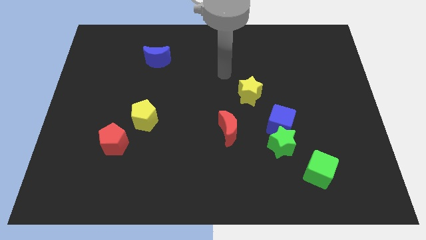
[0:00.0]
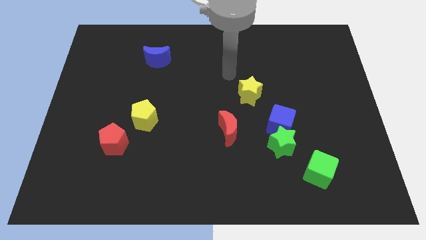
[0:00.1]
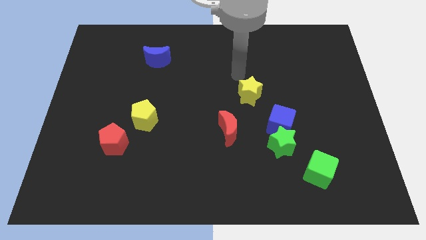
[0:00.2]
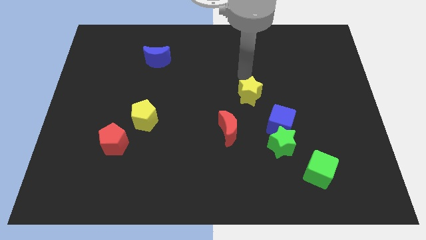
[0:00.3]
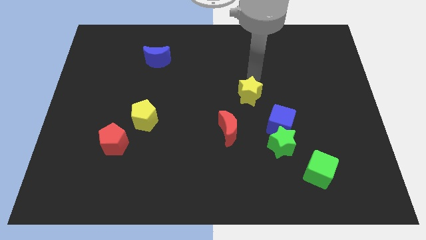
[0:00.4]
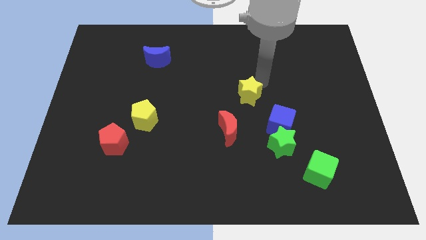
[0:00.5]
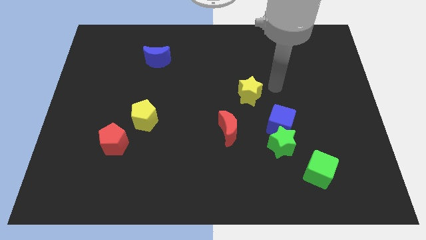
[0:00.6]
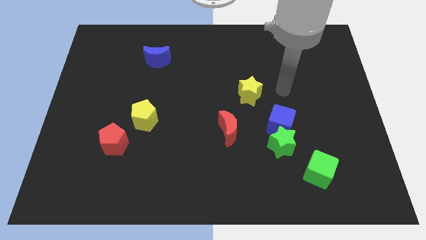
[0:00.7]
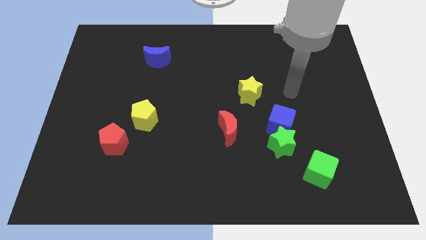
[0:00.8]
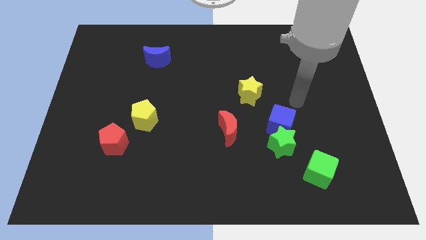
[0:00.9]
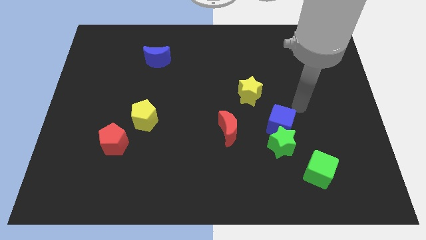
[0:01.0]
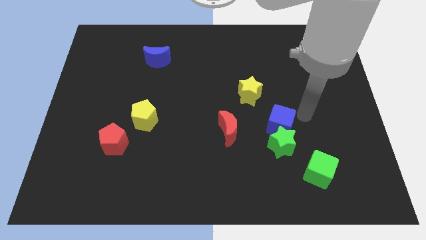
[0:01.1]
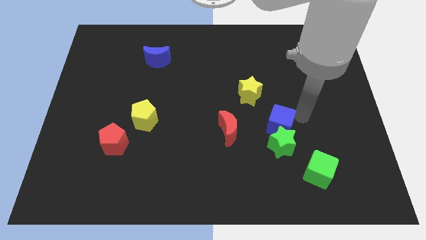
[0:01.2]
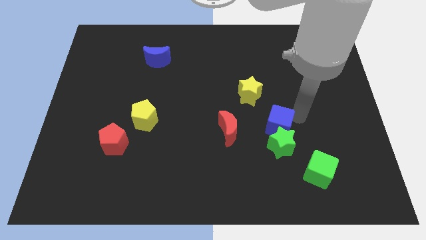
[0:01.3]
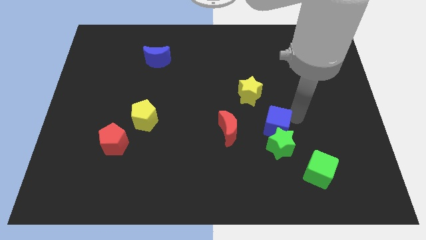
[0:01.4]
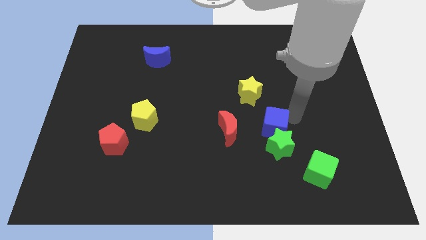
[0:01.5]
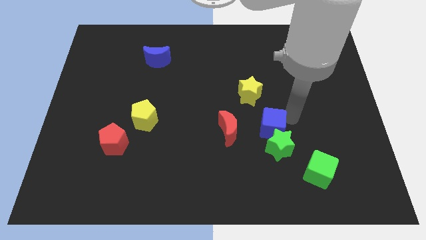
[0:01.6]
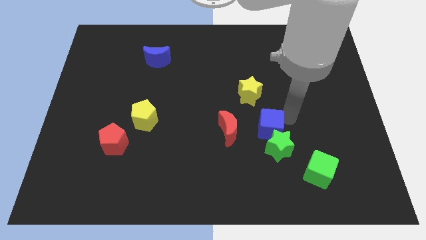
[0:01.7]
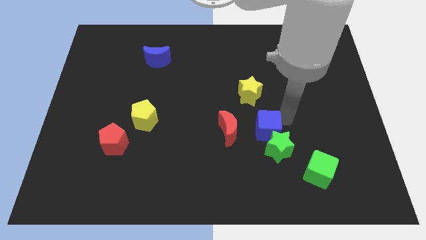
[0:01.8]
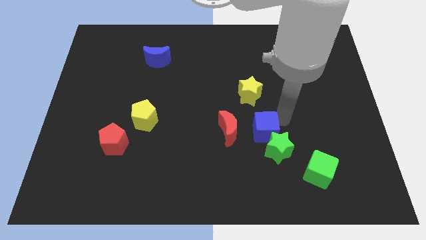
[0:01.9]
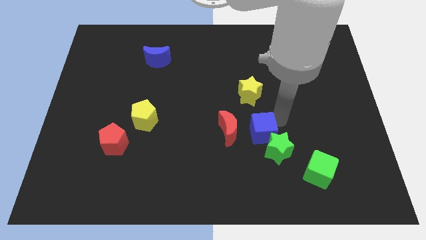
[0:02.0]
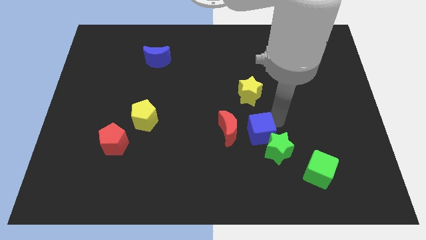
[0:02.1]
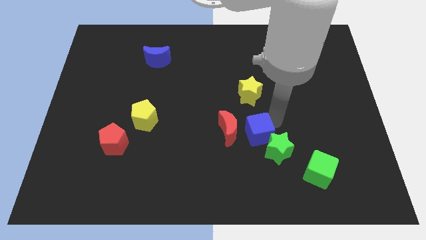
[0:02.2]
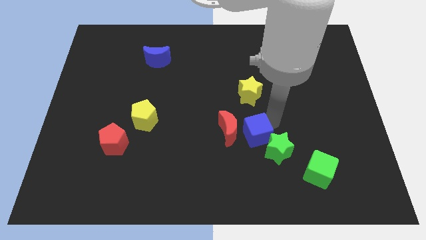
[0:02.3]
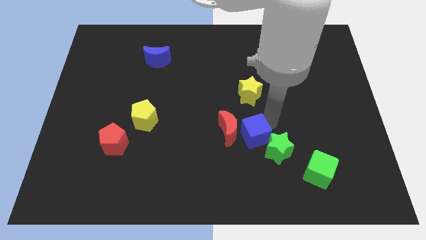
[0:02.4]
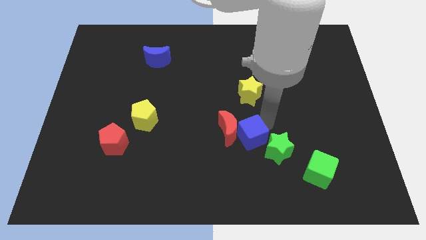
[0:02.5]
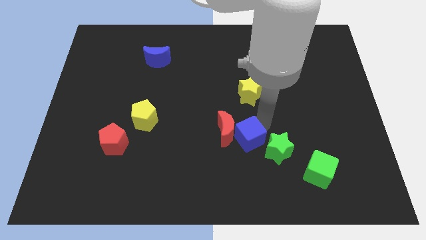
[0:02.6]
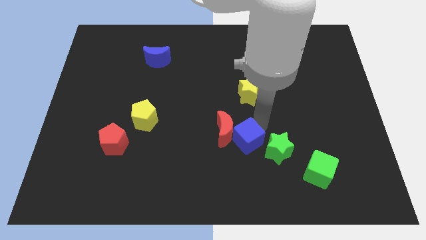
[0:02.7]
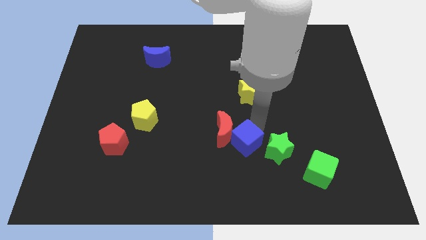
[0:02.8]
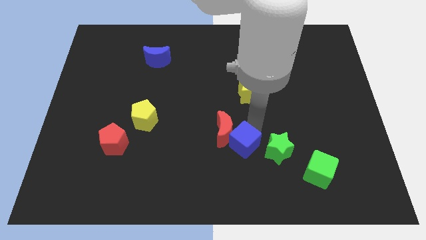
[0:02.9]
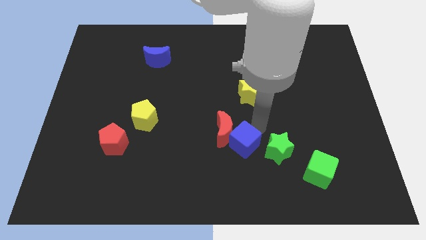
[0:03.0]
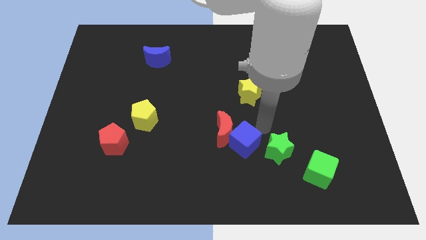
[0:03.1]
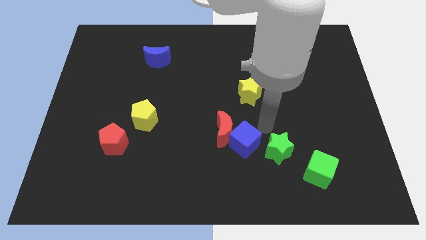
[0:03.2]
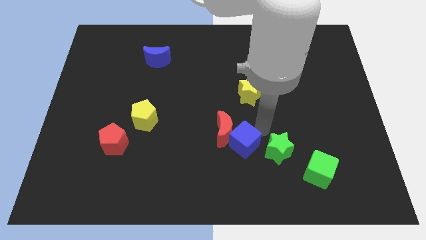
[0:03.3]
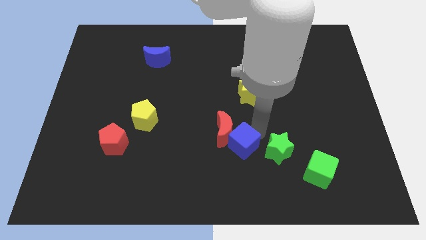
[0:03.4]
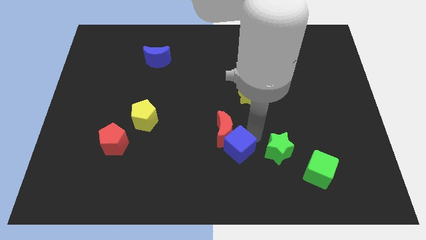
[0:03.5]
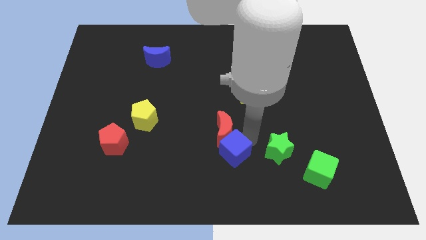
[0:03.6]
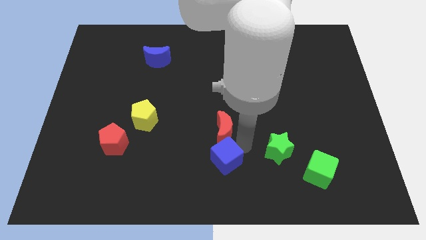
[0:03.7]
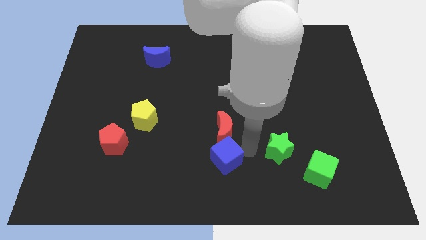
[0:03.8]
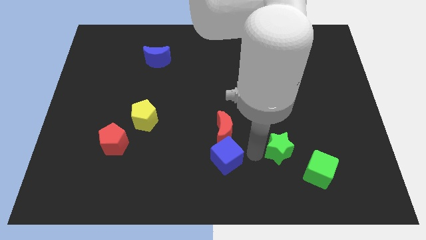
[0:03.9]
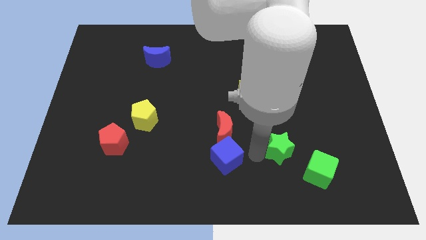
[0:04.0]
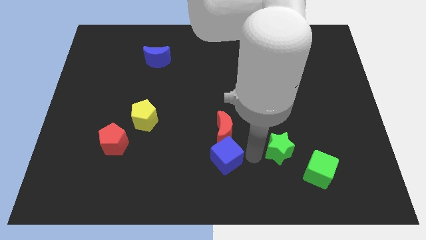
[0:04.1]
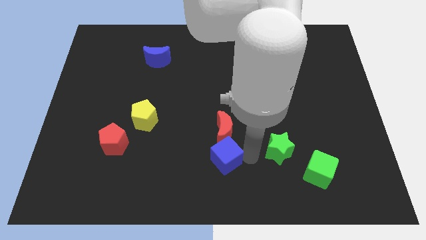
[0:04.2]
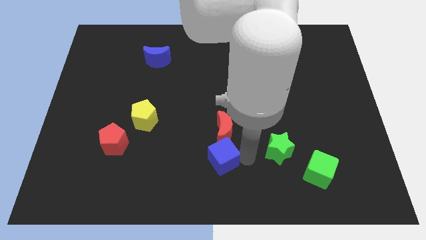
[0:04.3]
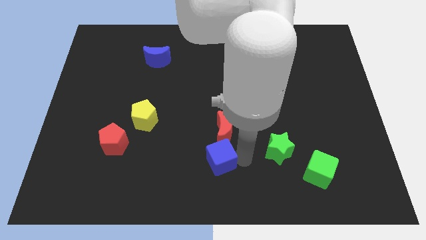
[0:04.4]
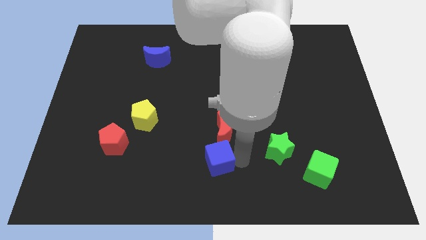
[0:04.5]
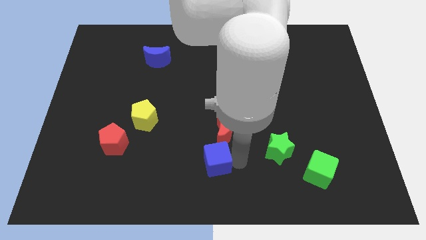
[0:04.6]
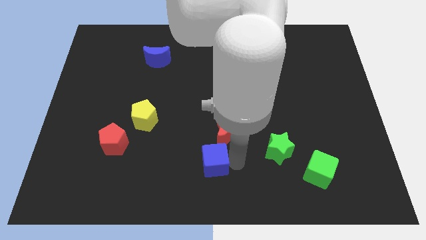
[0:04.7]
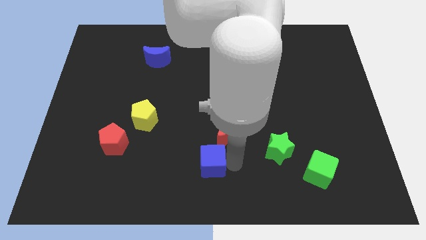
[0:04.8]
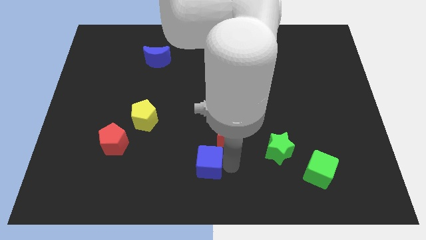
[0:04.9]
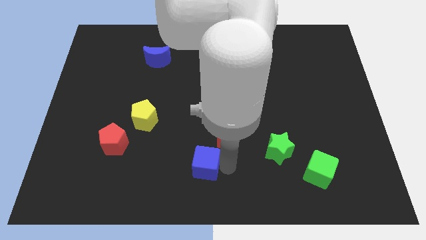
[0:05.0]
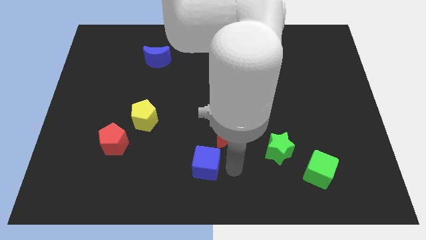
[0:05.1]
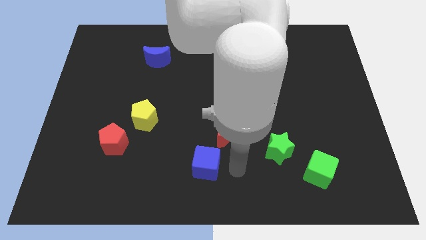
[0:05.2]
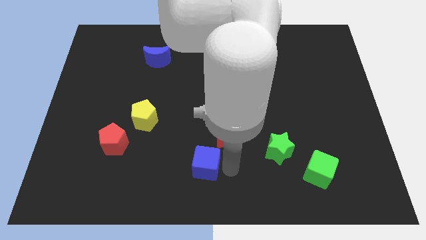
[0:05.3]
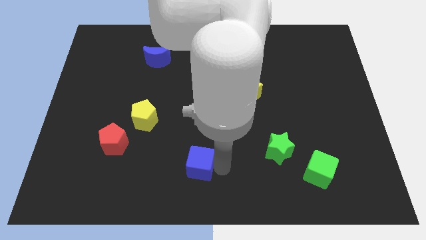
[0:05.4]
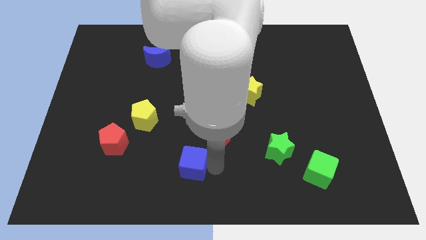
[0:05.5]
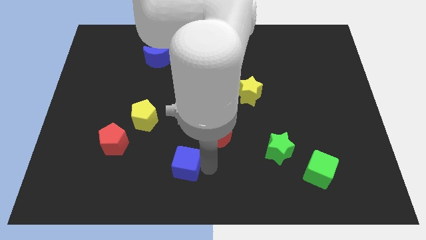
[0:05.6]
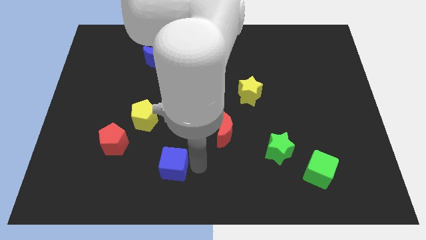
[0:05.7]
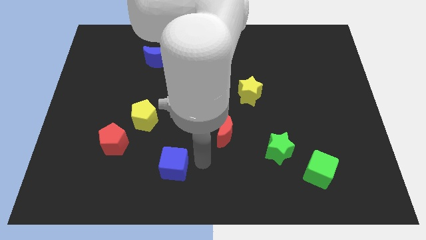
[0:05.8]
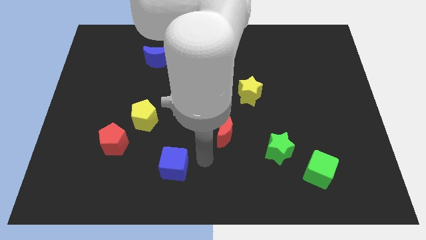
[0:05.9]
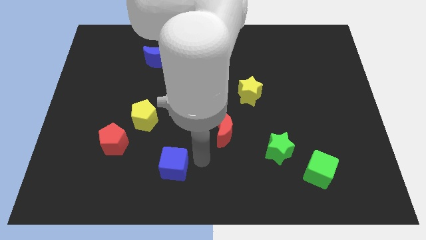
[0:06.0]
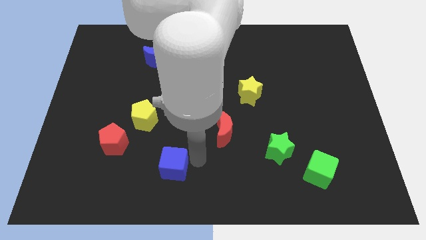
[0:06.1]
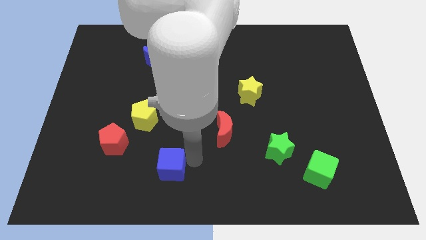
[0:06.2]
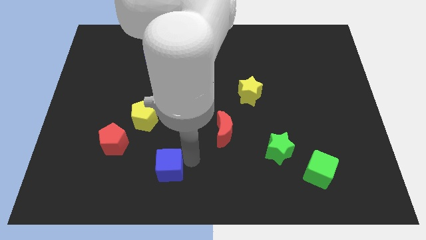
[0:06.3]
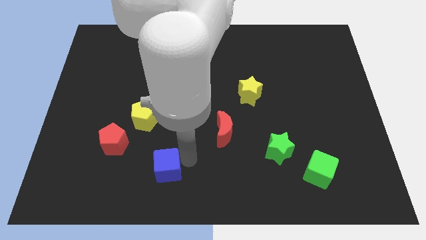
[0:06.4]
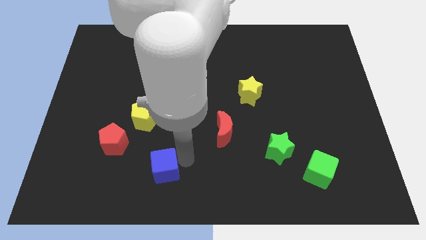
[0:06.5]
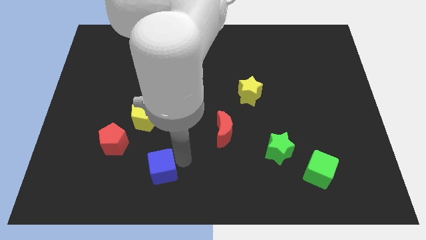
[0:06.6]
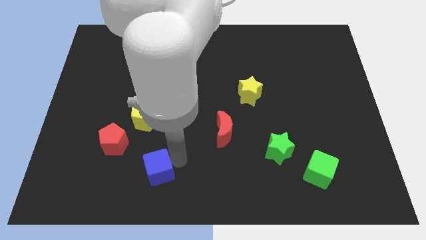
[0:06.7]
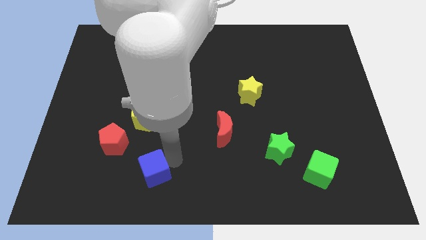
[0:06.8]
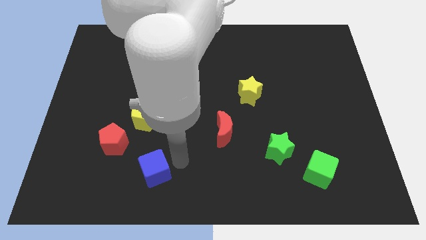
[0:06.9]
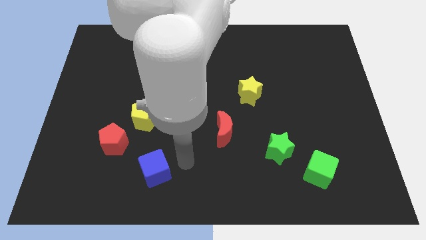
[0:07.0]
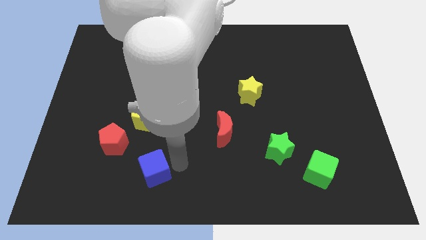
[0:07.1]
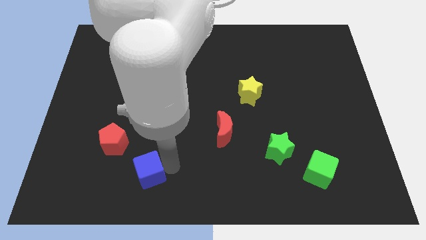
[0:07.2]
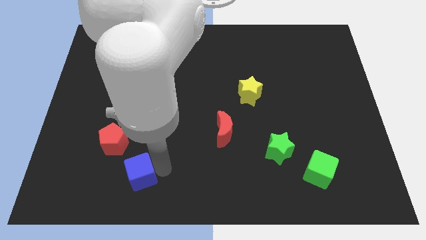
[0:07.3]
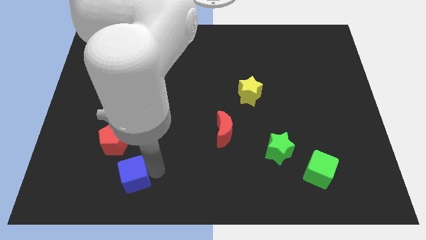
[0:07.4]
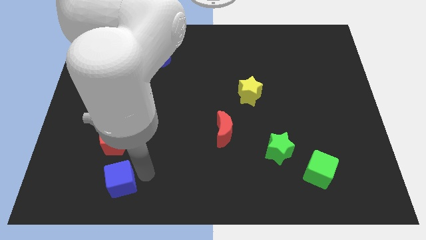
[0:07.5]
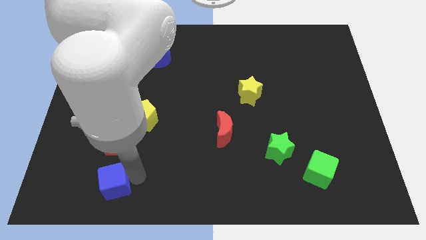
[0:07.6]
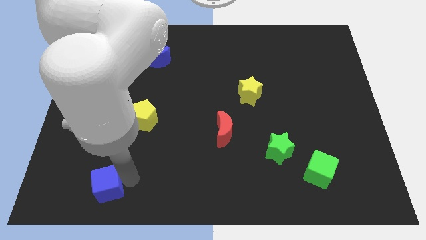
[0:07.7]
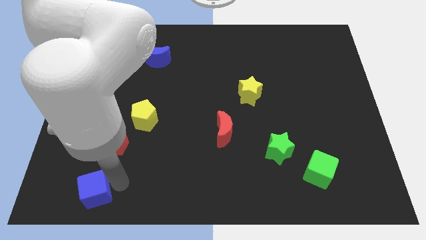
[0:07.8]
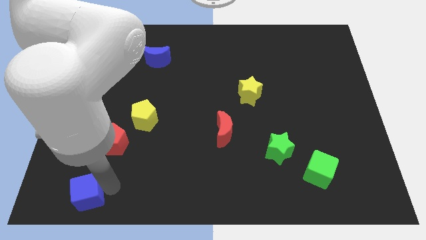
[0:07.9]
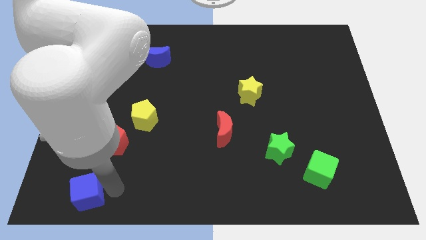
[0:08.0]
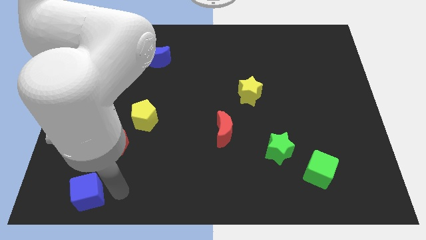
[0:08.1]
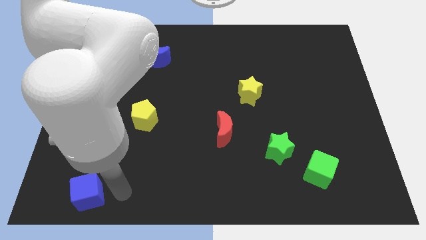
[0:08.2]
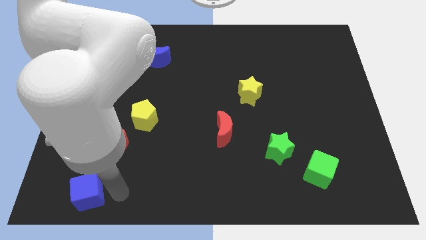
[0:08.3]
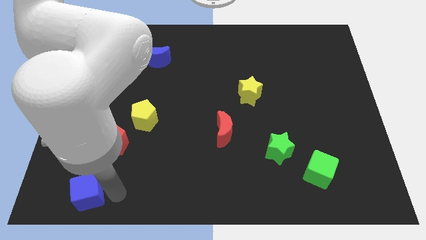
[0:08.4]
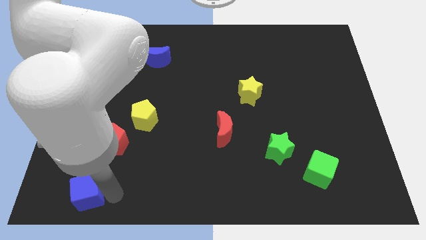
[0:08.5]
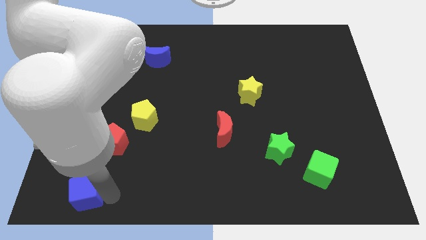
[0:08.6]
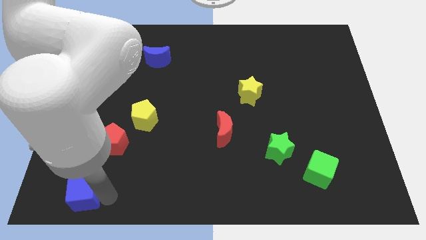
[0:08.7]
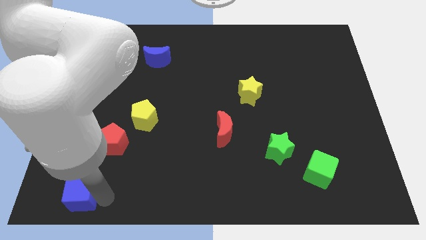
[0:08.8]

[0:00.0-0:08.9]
move the blue cube to the bottom left corner
